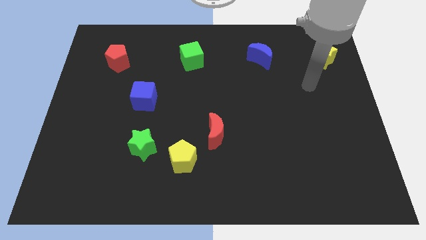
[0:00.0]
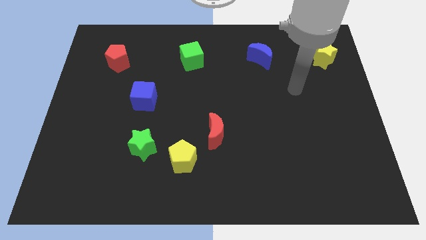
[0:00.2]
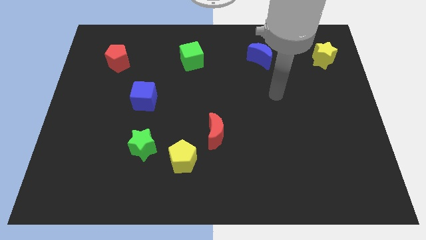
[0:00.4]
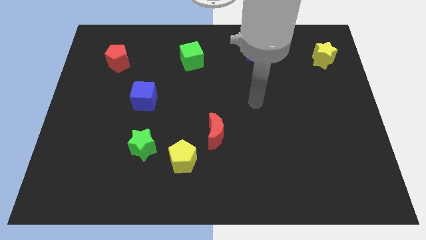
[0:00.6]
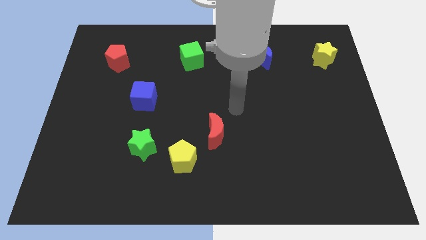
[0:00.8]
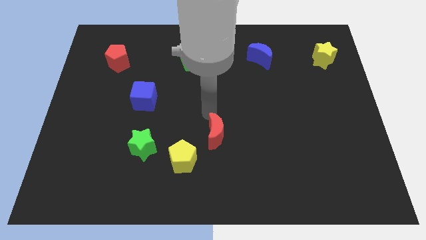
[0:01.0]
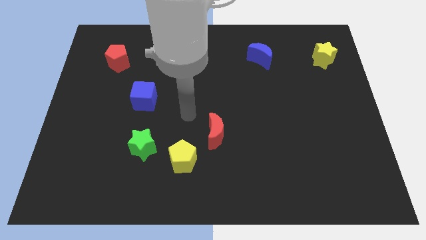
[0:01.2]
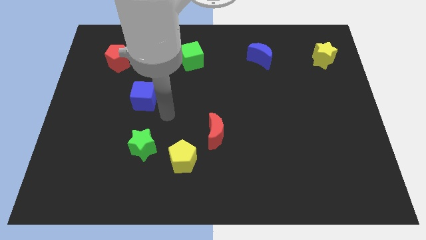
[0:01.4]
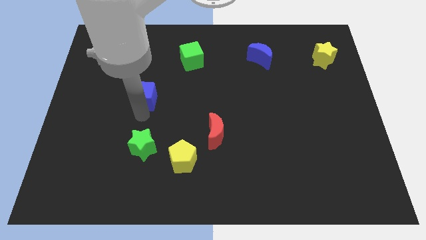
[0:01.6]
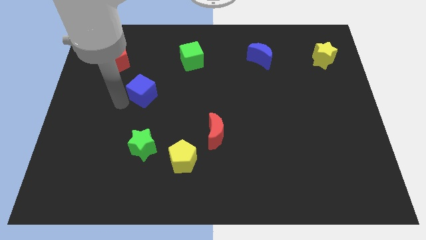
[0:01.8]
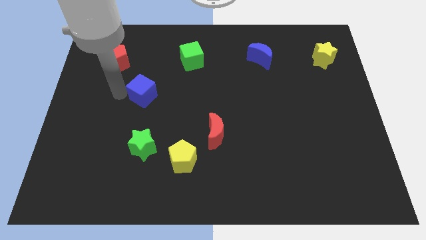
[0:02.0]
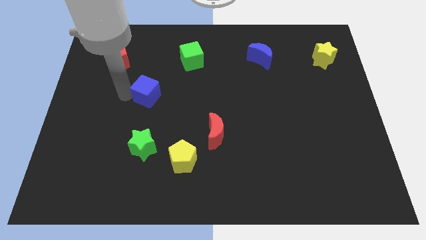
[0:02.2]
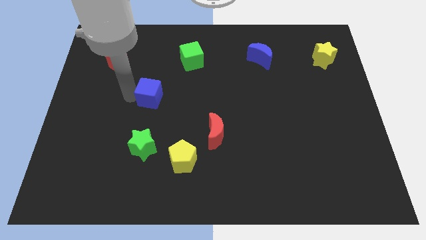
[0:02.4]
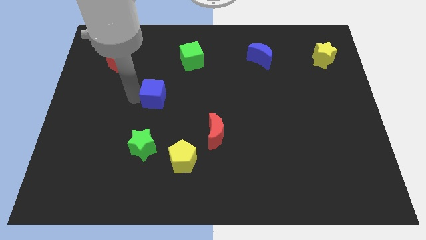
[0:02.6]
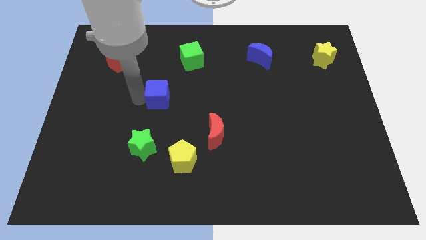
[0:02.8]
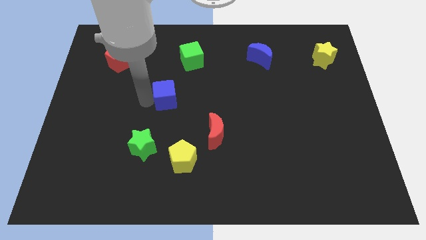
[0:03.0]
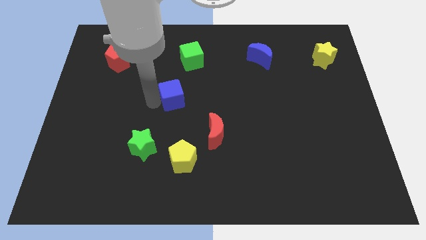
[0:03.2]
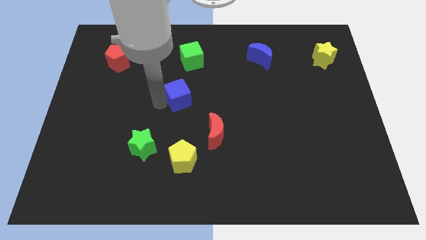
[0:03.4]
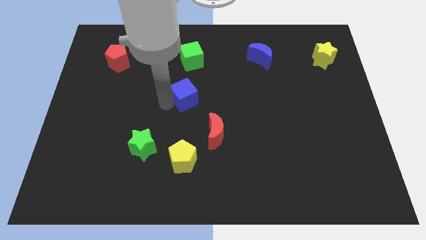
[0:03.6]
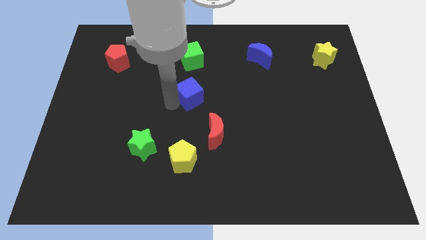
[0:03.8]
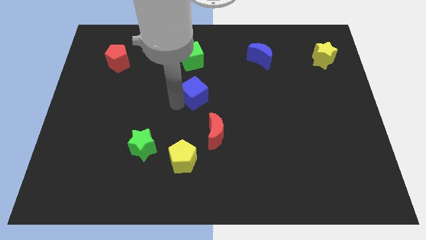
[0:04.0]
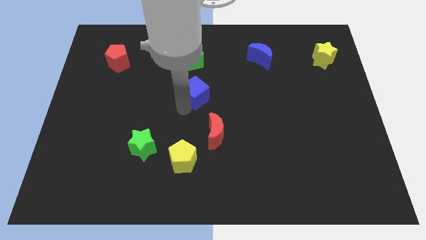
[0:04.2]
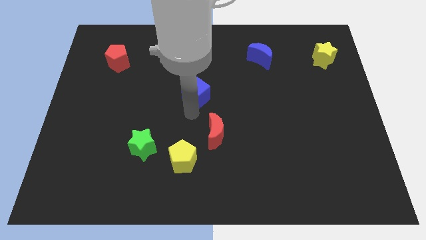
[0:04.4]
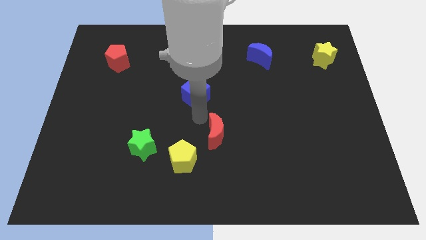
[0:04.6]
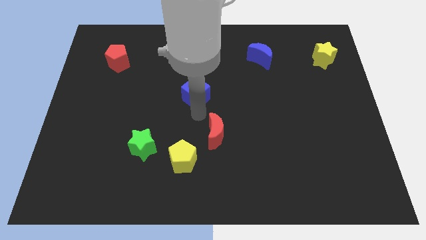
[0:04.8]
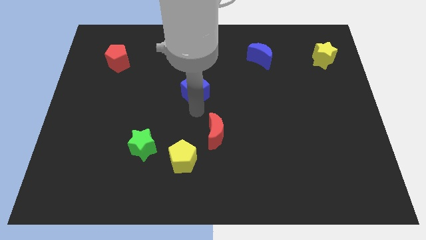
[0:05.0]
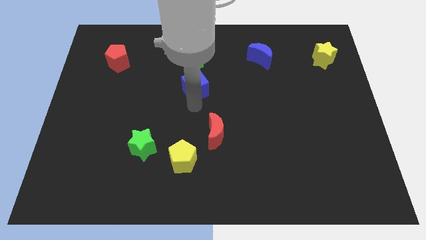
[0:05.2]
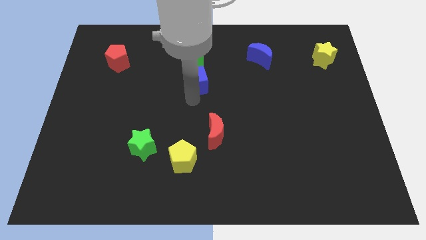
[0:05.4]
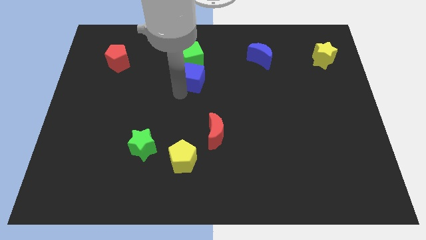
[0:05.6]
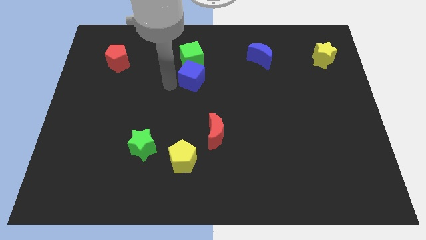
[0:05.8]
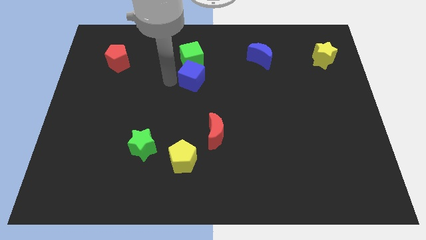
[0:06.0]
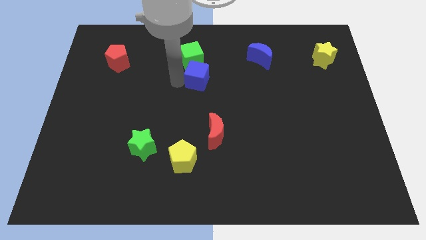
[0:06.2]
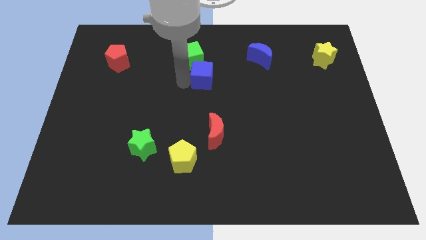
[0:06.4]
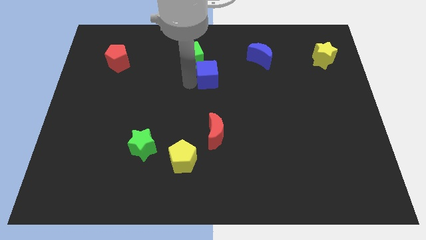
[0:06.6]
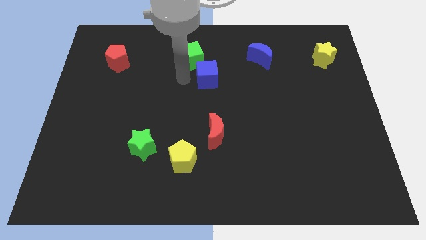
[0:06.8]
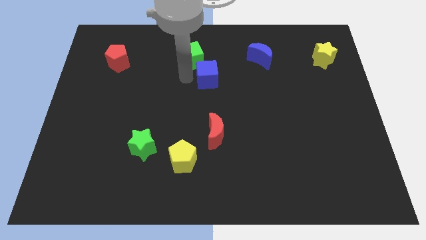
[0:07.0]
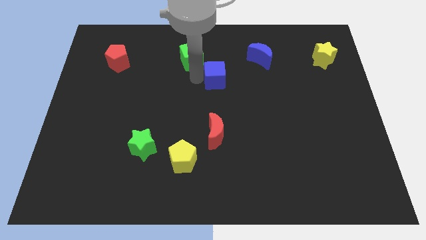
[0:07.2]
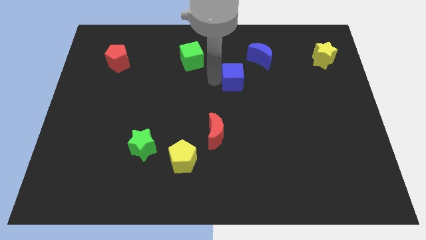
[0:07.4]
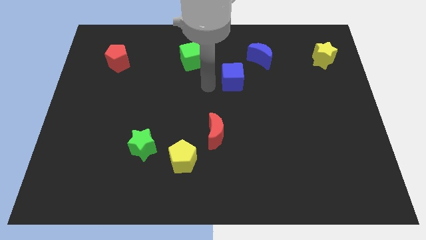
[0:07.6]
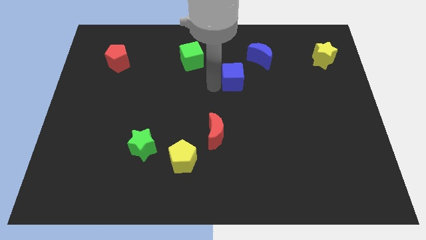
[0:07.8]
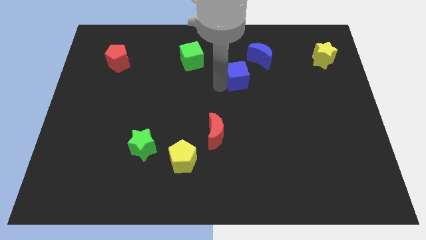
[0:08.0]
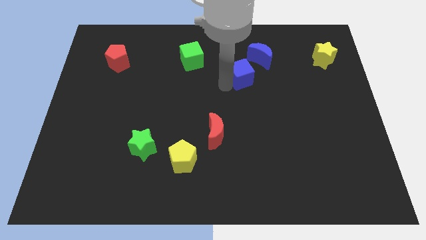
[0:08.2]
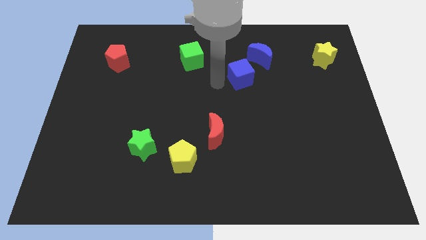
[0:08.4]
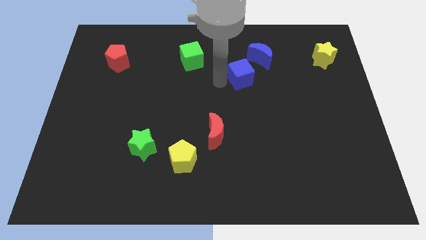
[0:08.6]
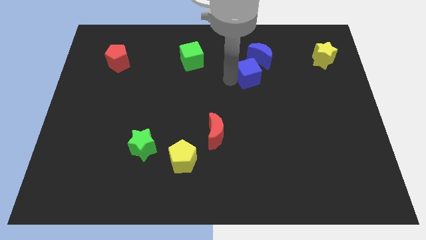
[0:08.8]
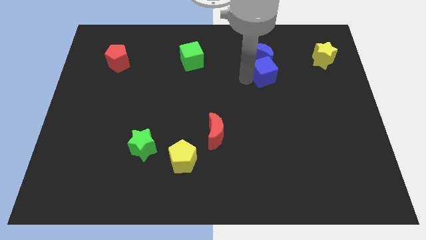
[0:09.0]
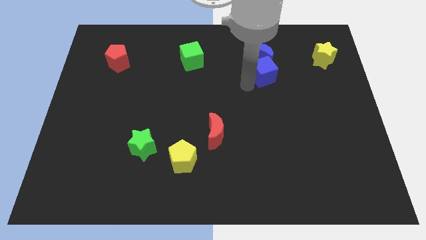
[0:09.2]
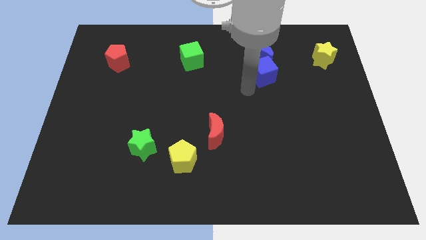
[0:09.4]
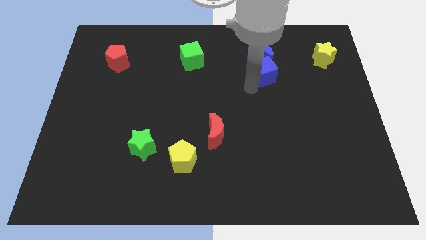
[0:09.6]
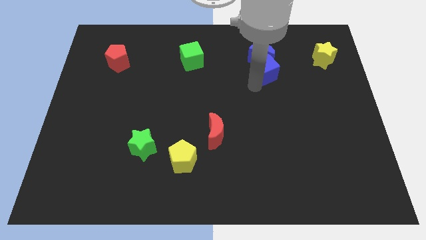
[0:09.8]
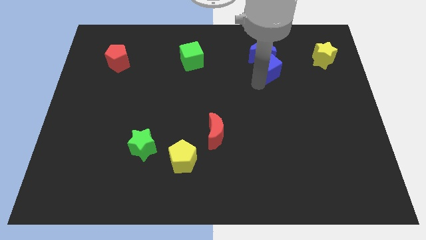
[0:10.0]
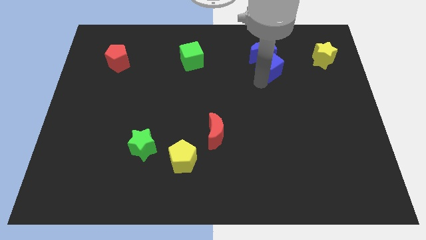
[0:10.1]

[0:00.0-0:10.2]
put the blue cube to the left of the yellow star
